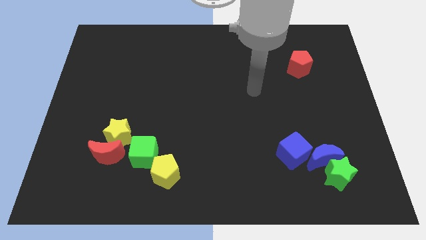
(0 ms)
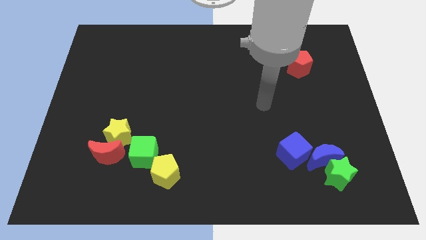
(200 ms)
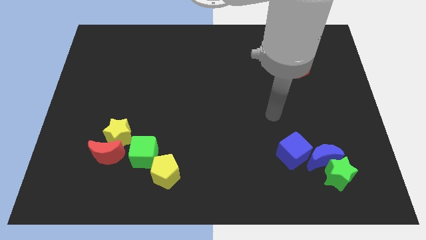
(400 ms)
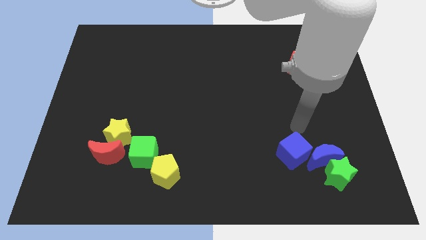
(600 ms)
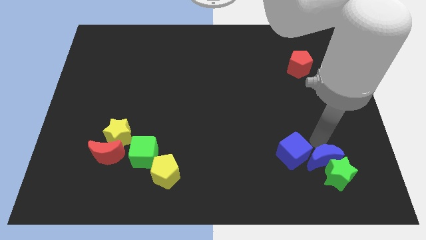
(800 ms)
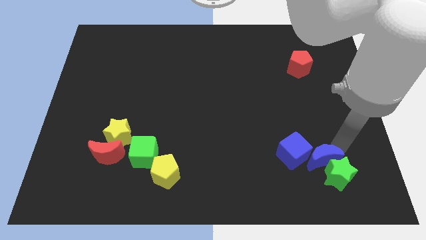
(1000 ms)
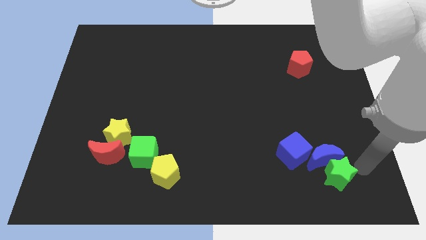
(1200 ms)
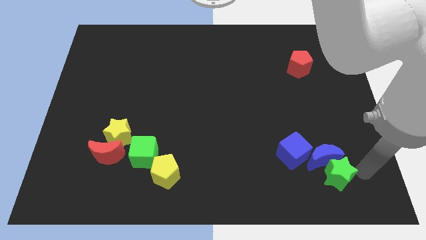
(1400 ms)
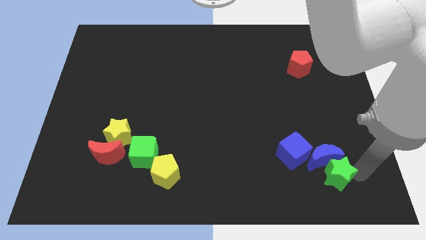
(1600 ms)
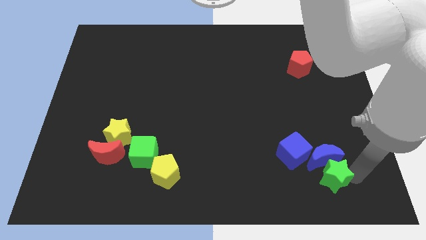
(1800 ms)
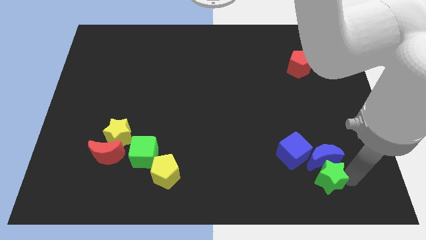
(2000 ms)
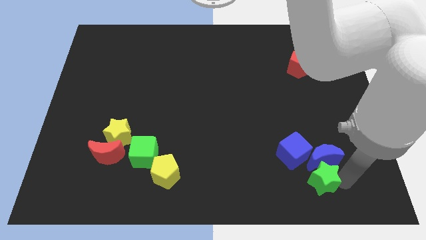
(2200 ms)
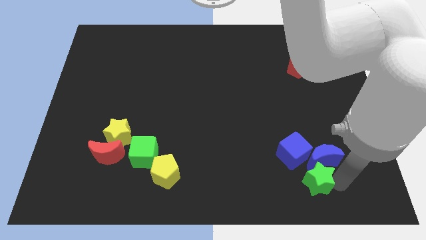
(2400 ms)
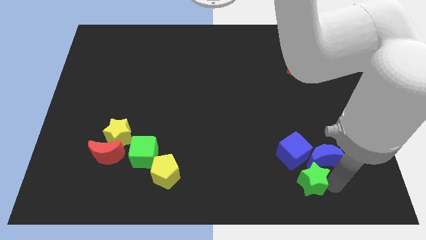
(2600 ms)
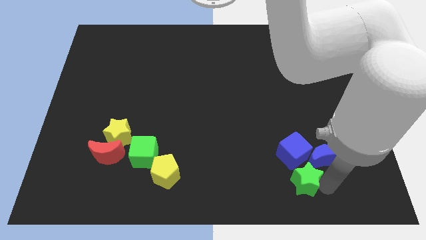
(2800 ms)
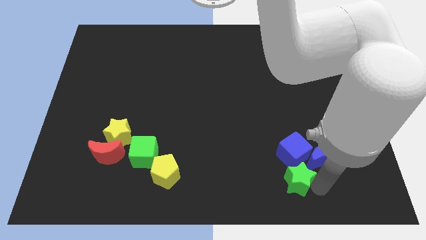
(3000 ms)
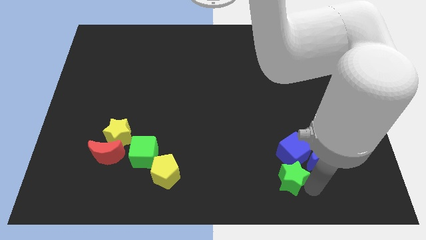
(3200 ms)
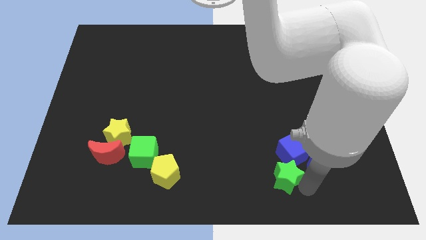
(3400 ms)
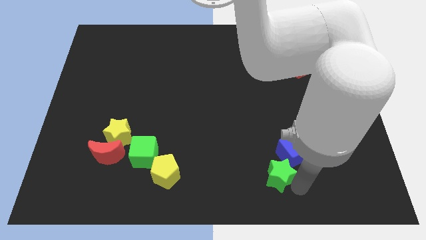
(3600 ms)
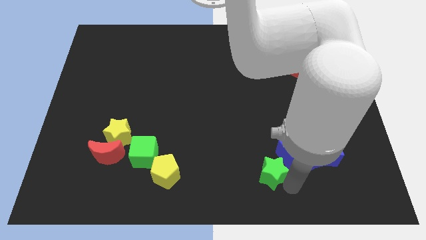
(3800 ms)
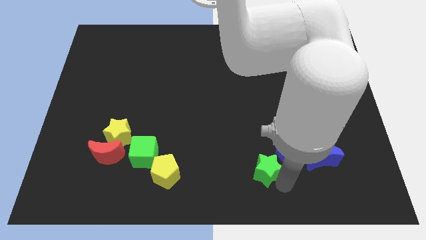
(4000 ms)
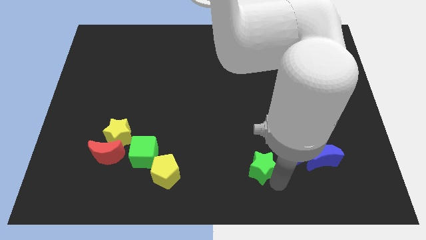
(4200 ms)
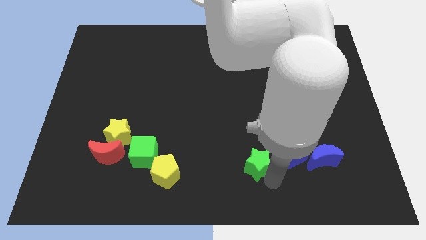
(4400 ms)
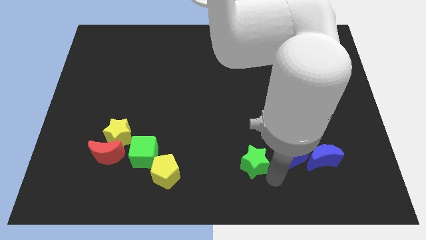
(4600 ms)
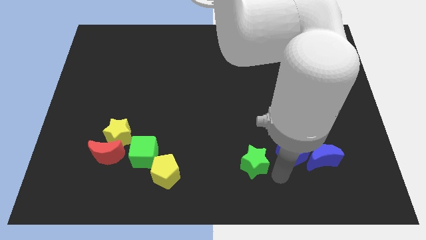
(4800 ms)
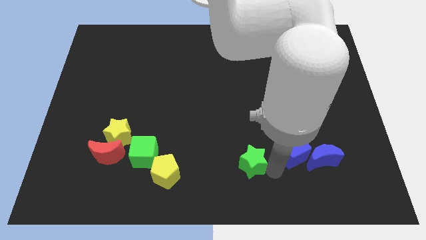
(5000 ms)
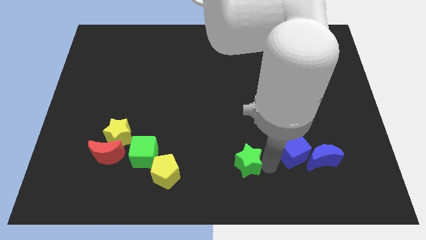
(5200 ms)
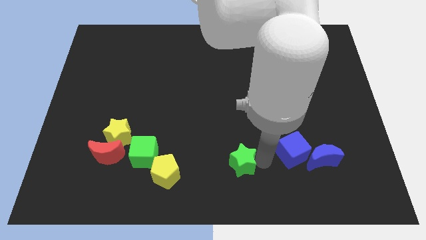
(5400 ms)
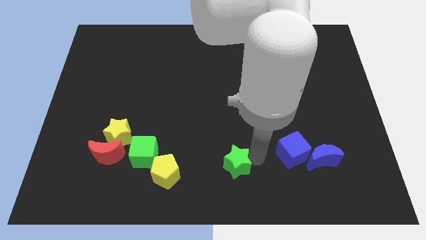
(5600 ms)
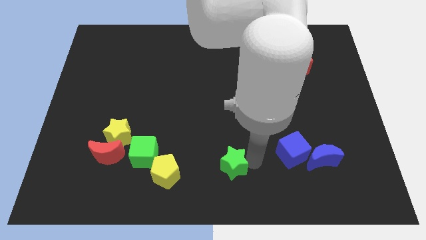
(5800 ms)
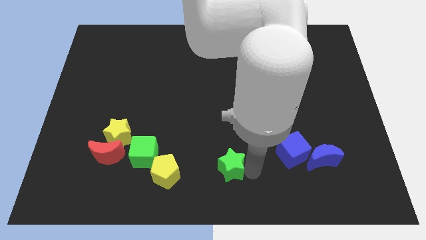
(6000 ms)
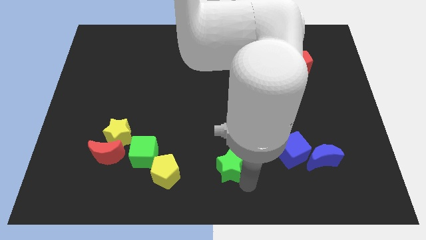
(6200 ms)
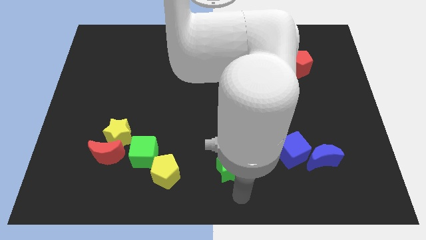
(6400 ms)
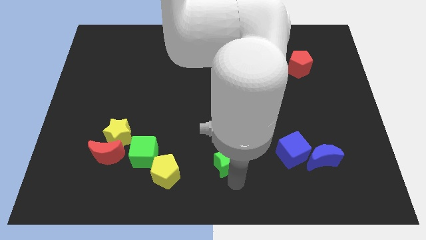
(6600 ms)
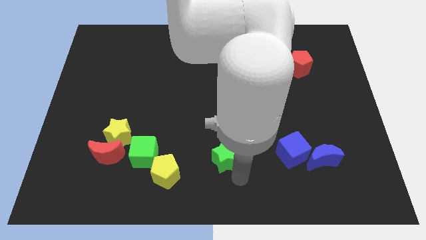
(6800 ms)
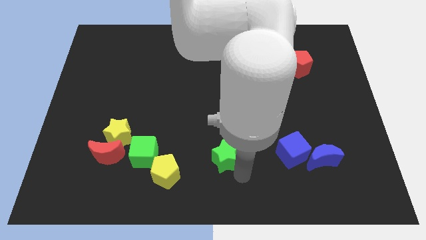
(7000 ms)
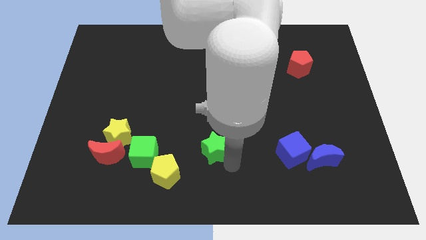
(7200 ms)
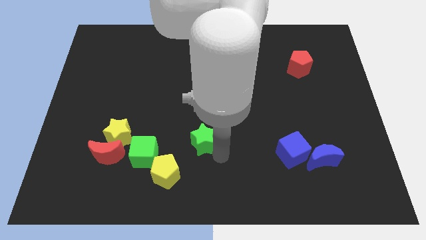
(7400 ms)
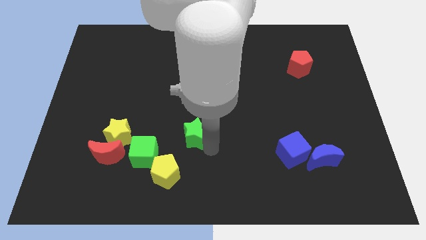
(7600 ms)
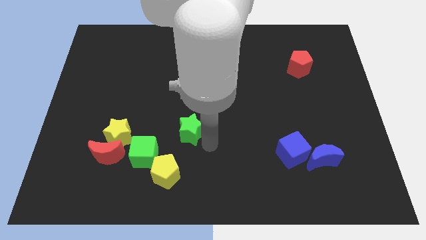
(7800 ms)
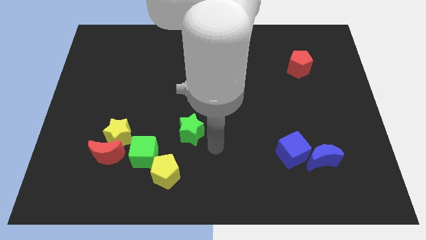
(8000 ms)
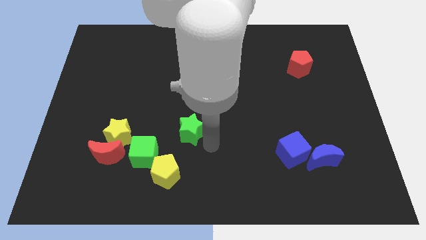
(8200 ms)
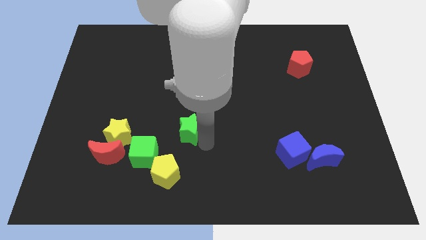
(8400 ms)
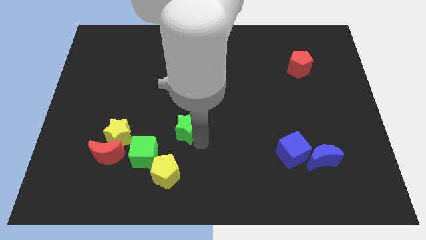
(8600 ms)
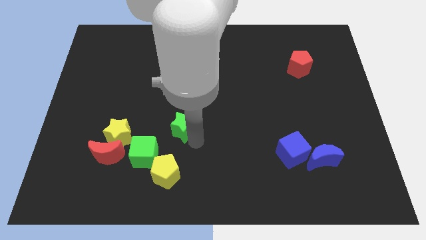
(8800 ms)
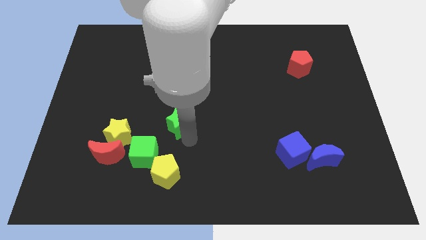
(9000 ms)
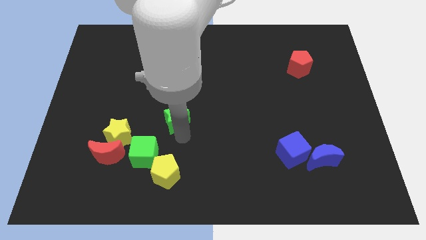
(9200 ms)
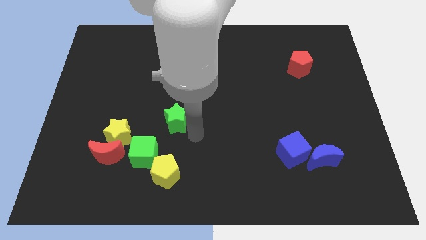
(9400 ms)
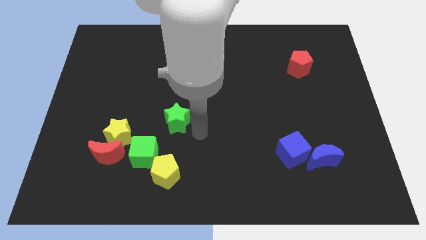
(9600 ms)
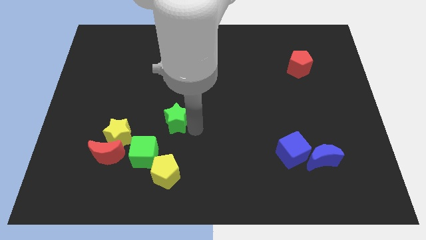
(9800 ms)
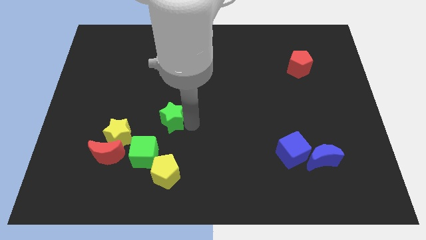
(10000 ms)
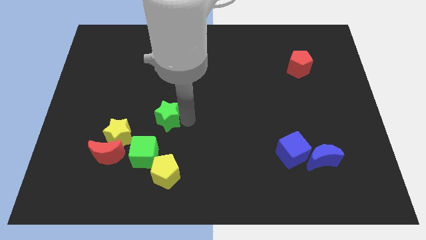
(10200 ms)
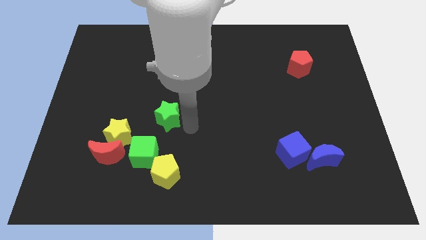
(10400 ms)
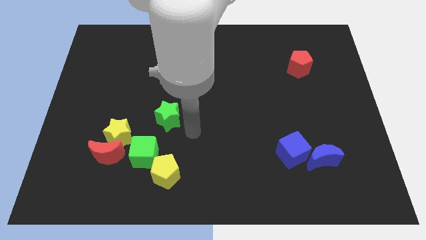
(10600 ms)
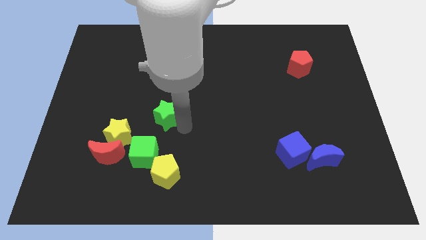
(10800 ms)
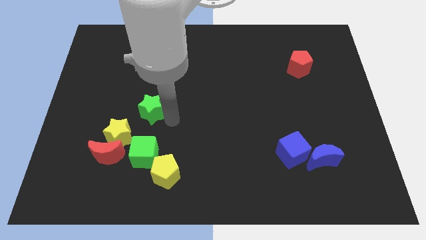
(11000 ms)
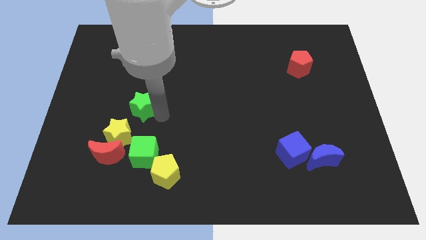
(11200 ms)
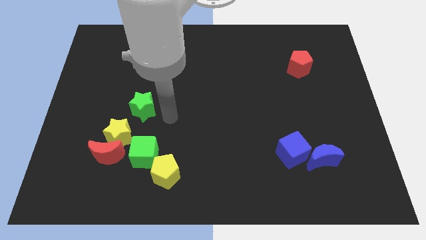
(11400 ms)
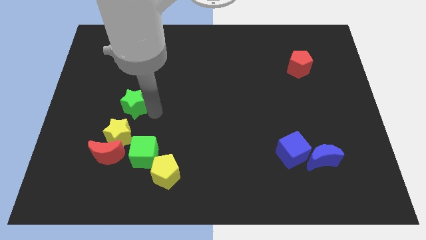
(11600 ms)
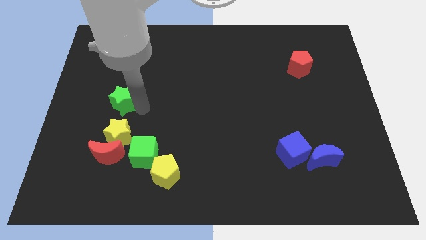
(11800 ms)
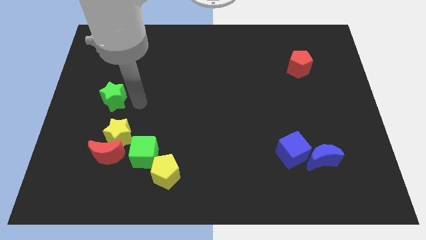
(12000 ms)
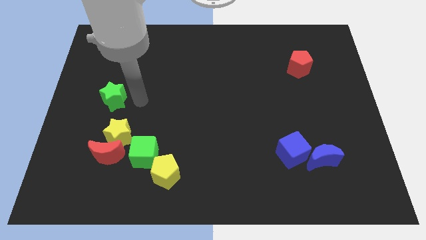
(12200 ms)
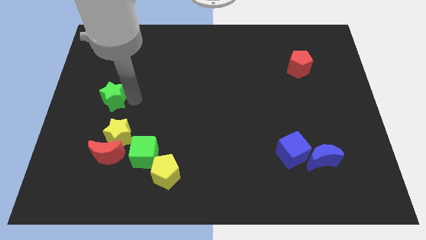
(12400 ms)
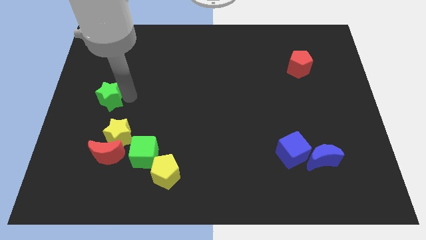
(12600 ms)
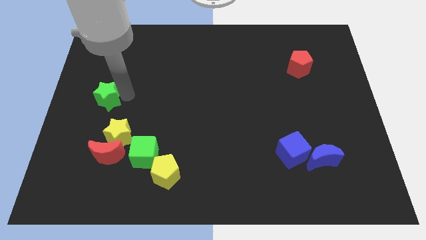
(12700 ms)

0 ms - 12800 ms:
slide the green star to the left side of the board
